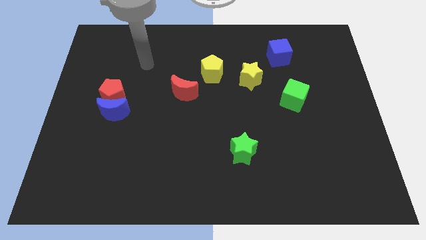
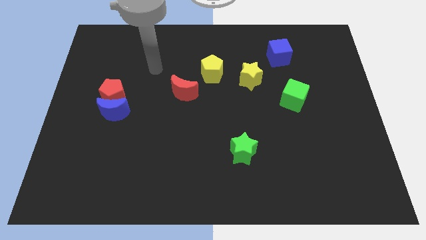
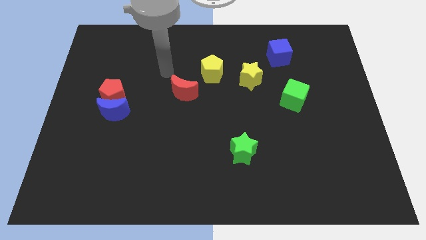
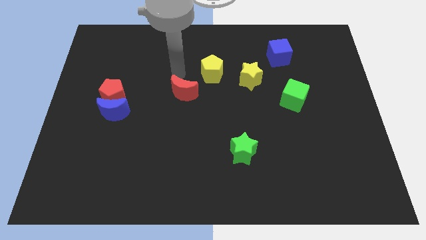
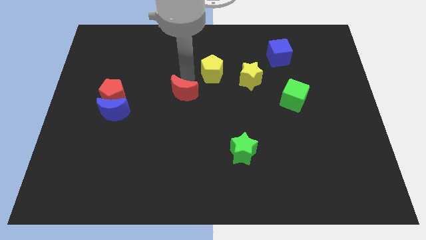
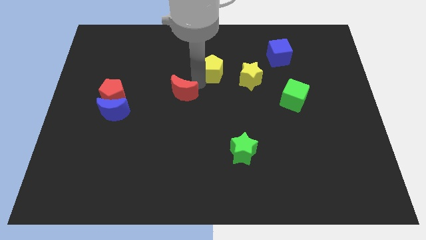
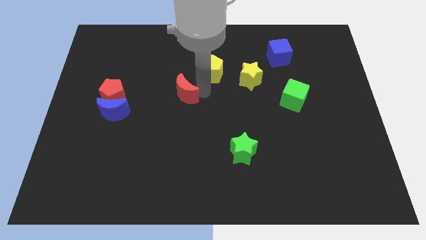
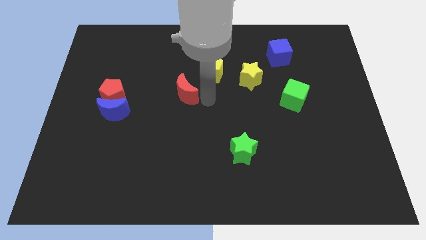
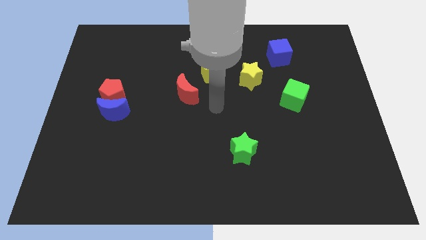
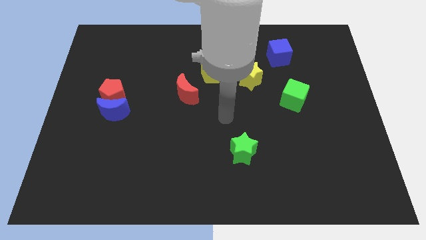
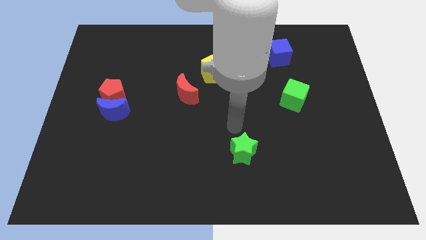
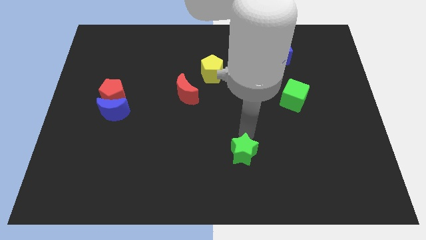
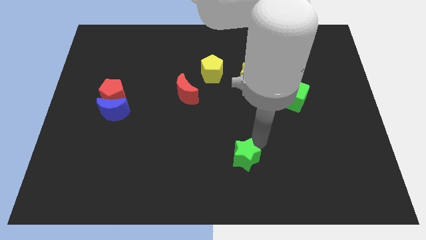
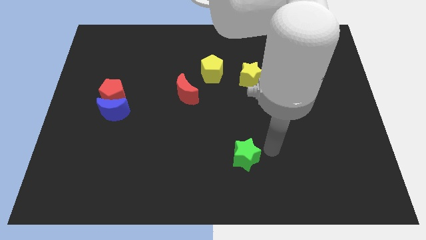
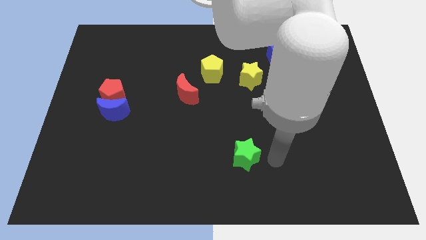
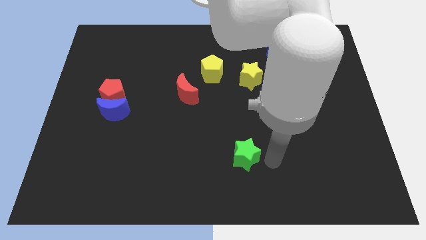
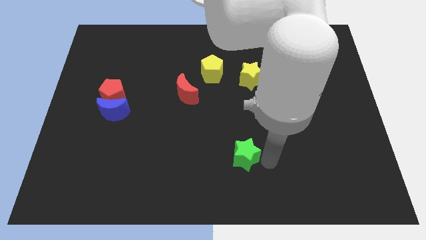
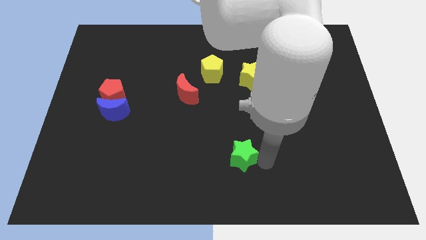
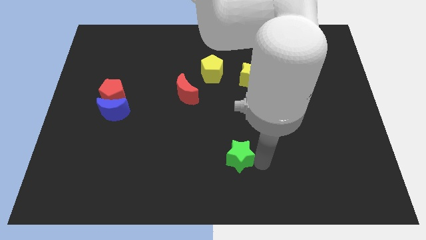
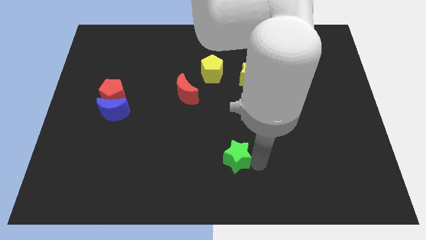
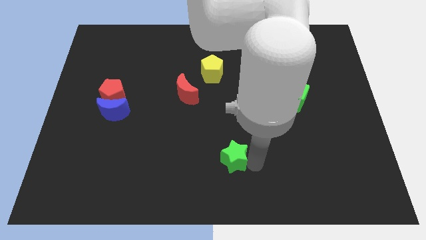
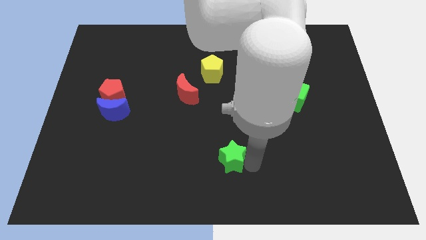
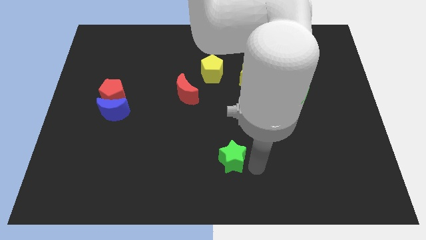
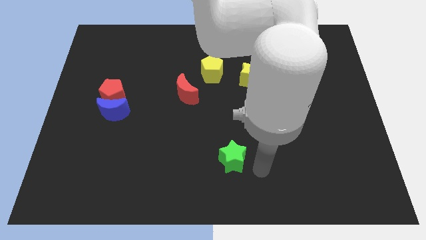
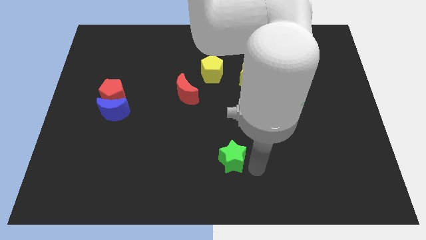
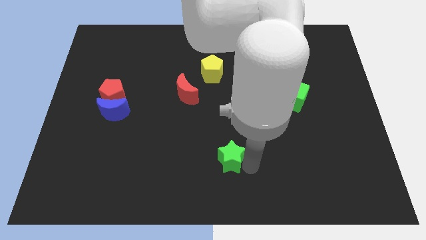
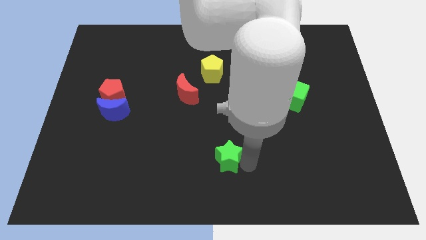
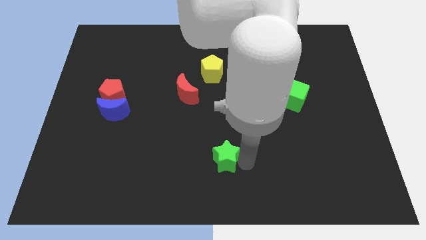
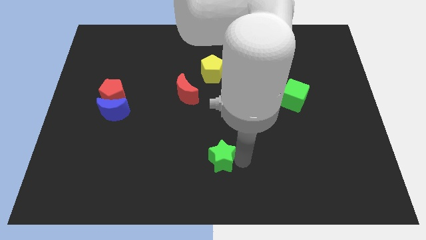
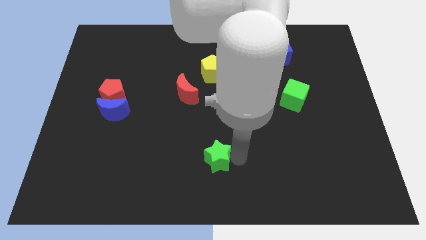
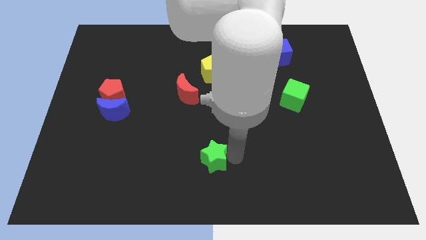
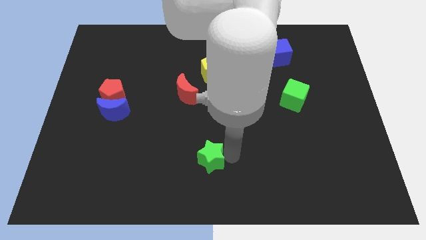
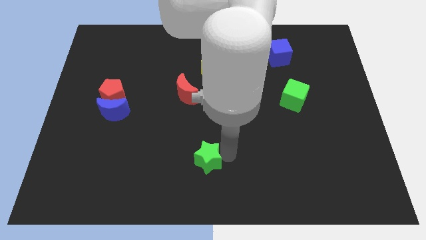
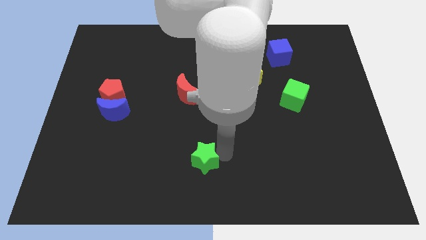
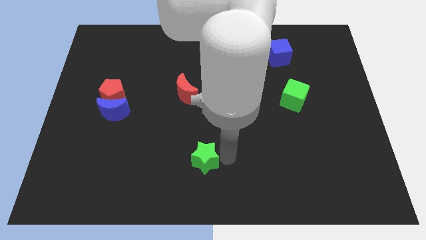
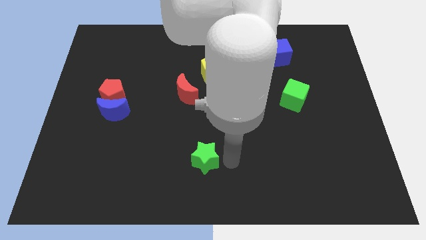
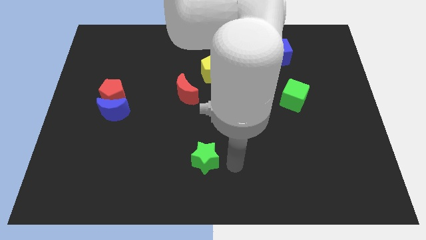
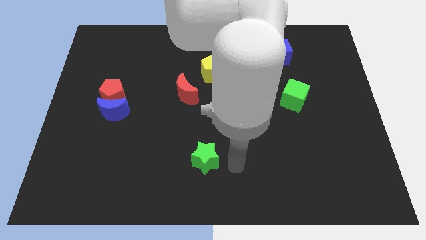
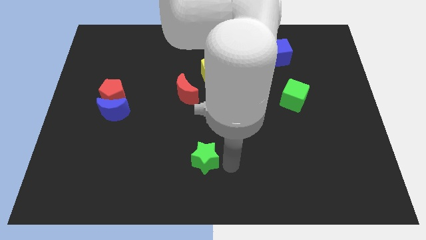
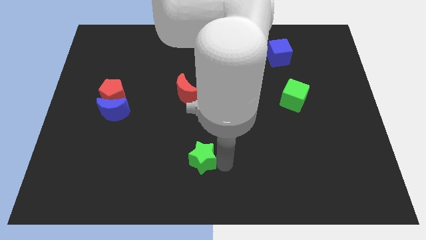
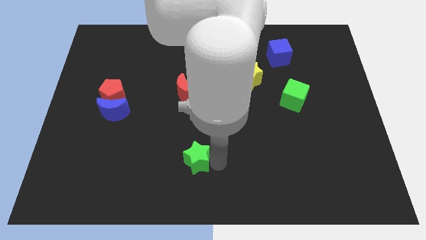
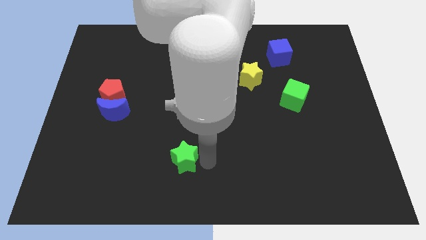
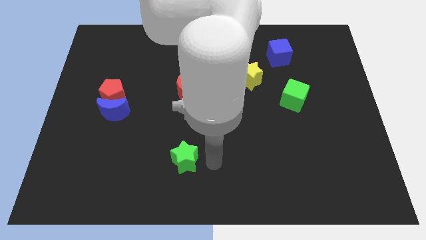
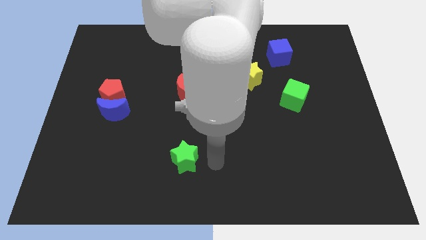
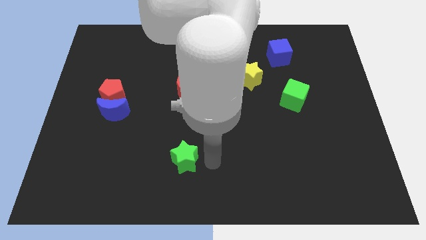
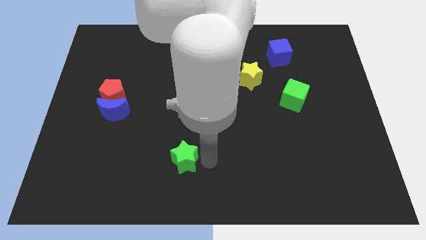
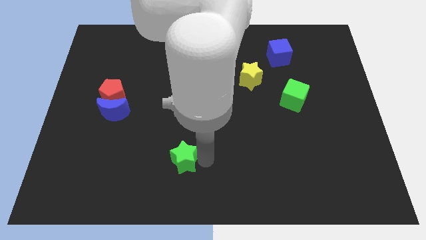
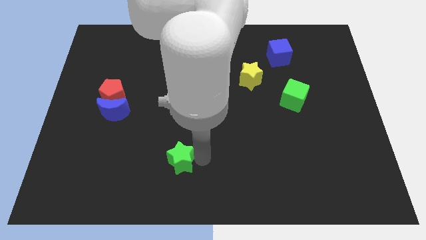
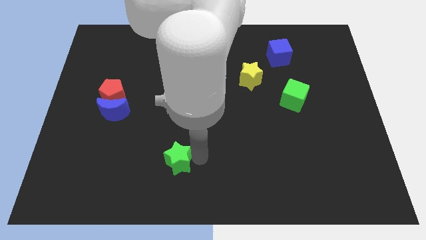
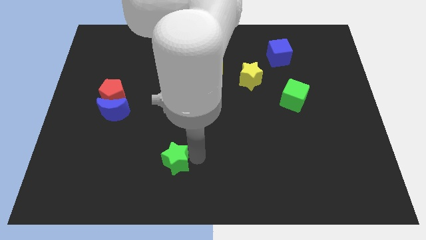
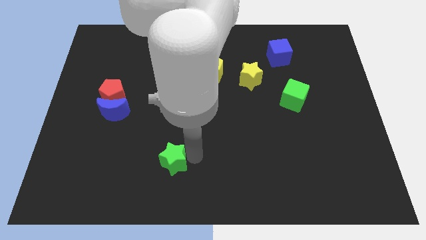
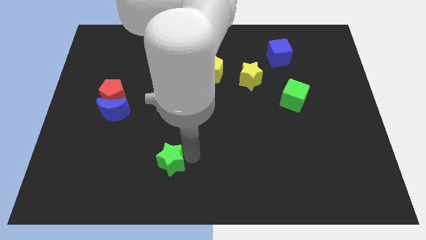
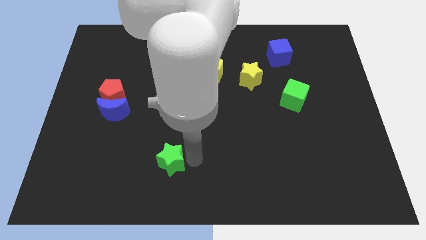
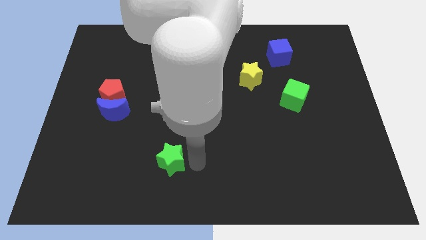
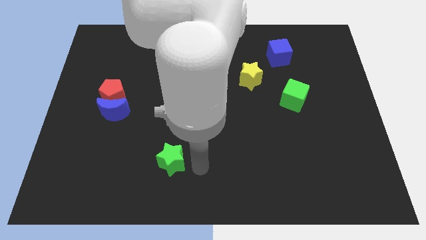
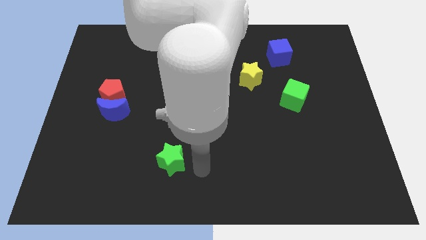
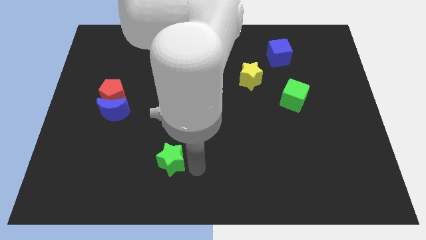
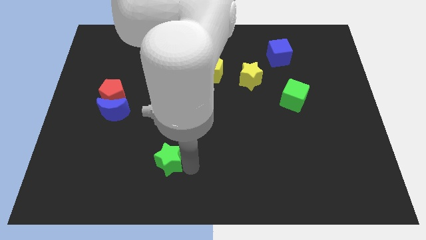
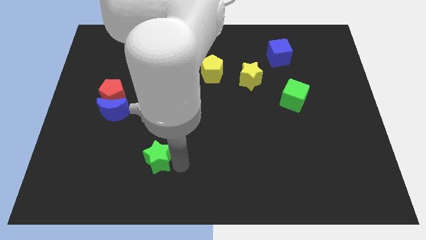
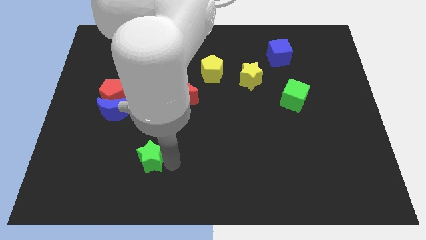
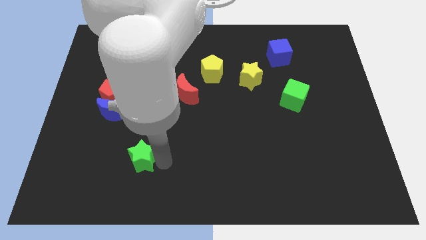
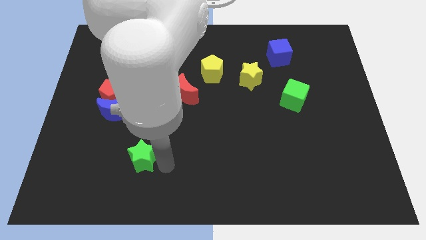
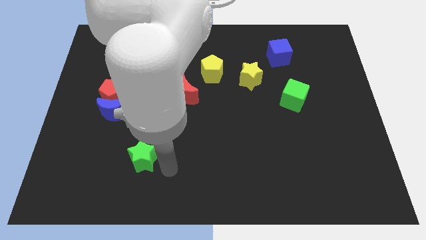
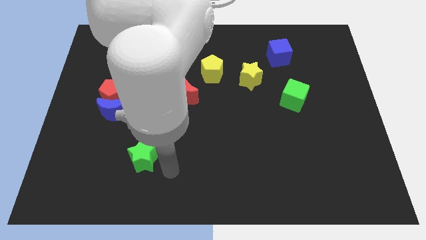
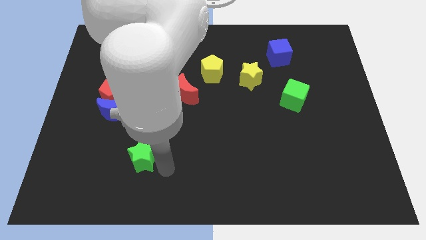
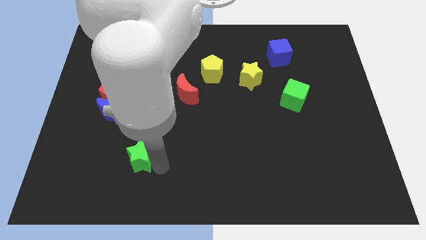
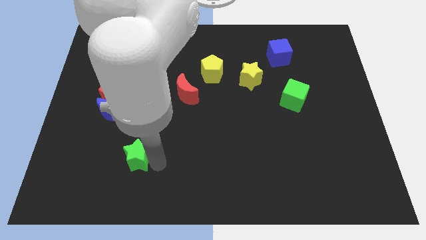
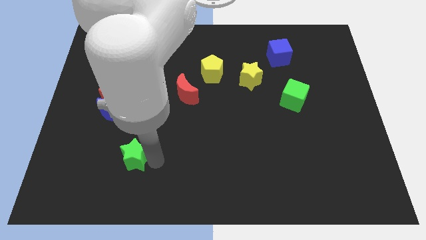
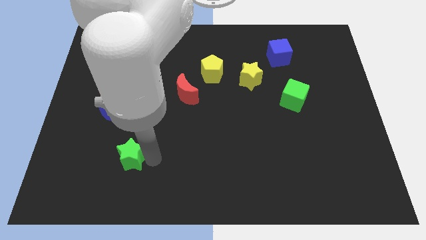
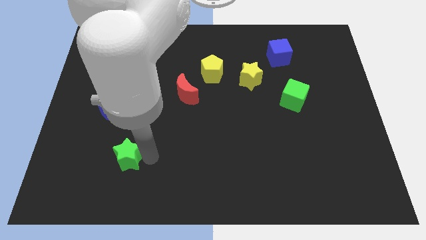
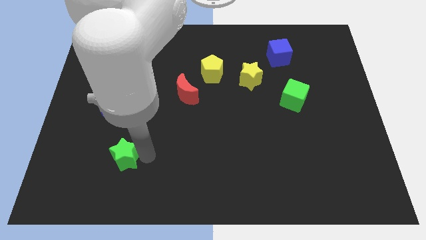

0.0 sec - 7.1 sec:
slide the green star to the bottom of the blue moon
